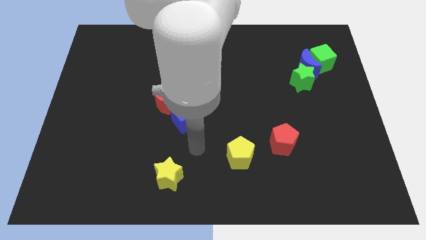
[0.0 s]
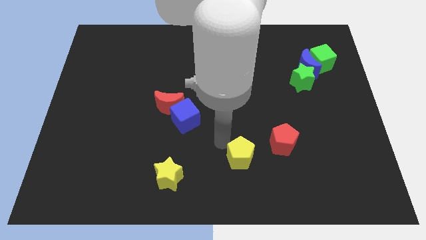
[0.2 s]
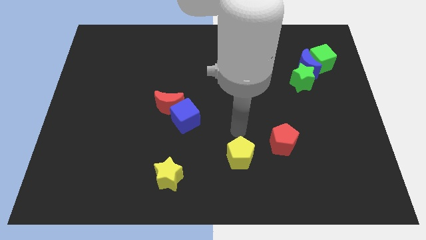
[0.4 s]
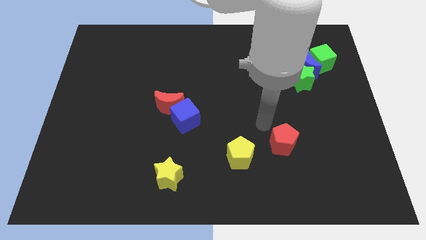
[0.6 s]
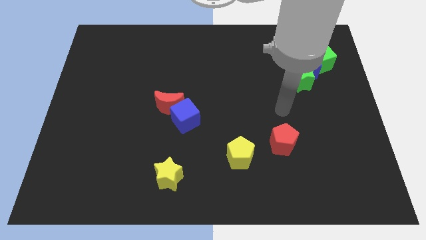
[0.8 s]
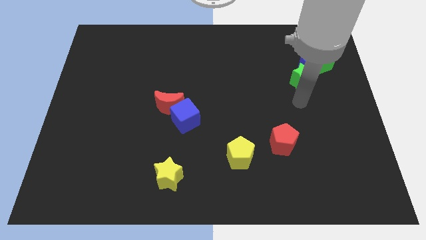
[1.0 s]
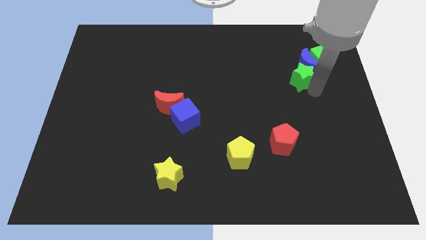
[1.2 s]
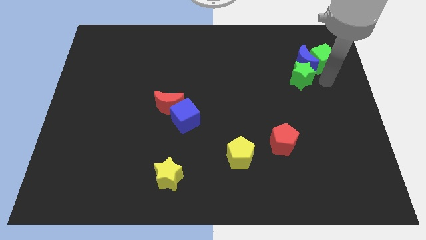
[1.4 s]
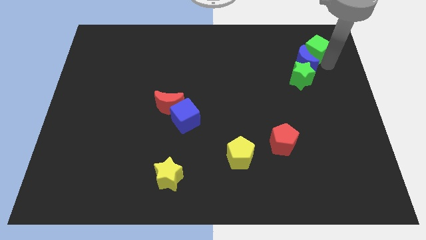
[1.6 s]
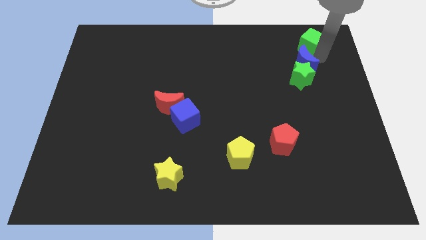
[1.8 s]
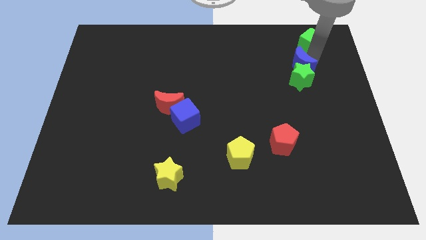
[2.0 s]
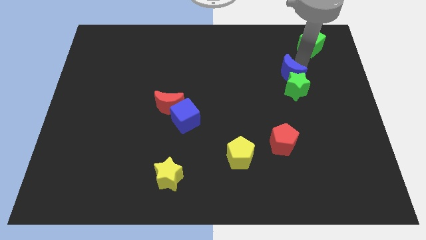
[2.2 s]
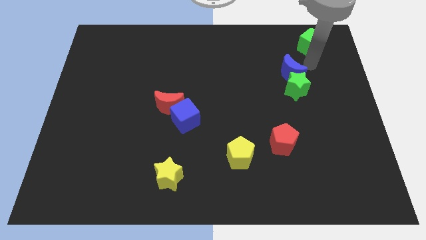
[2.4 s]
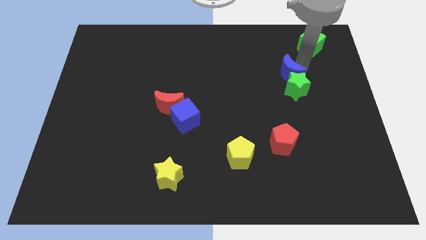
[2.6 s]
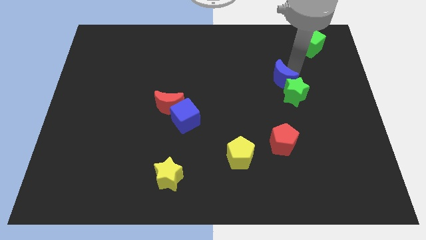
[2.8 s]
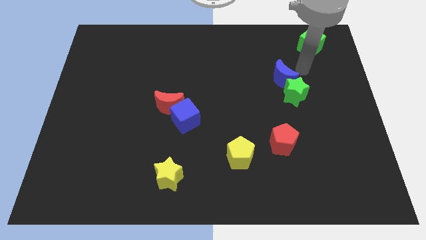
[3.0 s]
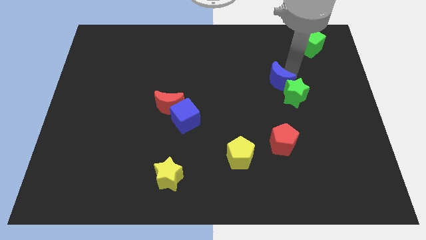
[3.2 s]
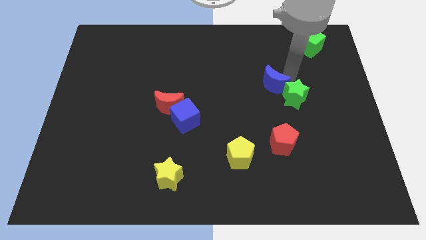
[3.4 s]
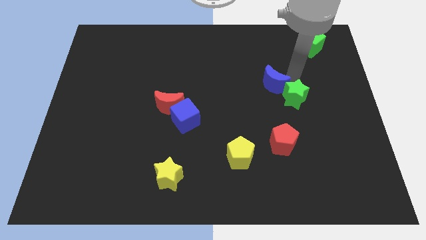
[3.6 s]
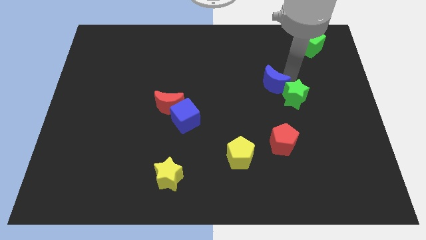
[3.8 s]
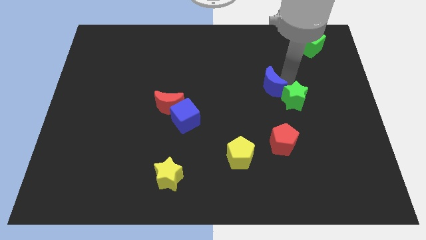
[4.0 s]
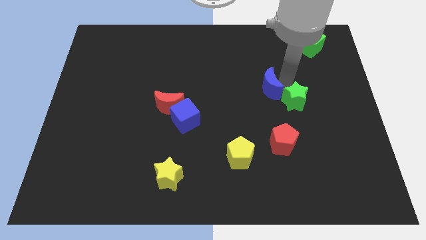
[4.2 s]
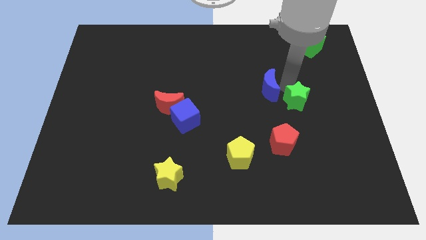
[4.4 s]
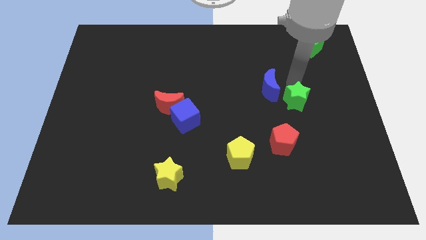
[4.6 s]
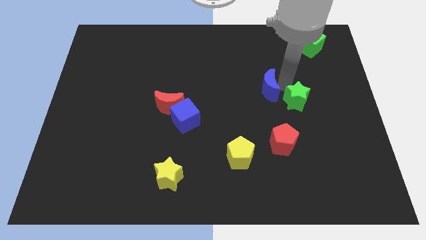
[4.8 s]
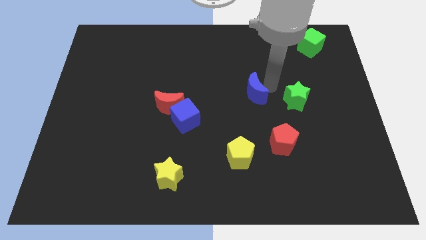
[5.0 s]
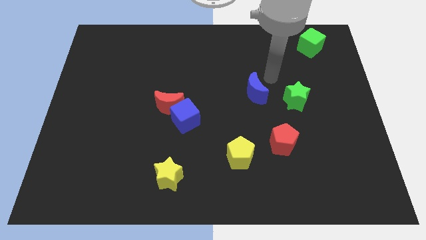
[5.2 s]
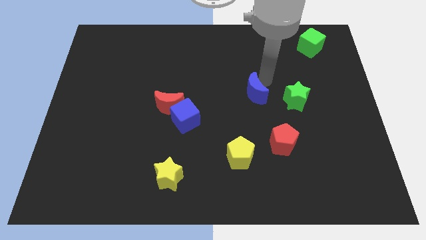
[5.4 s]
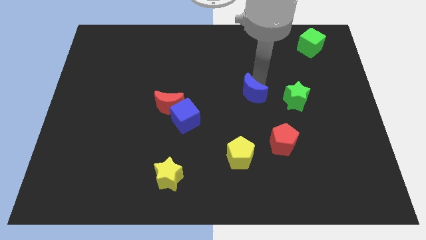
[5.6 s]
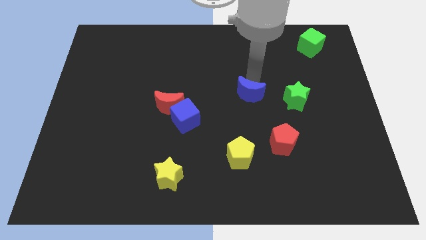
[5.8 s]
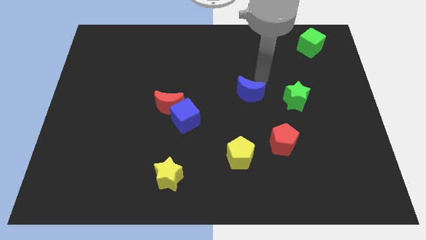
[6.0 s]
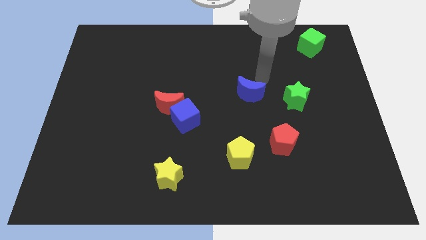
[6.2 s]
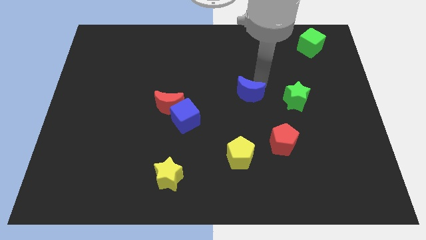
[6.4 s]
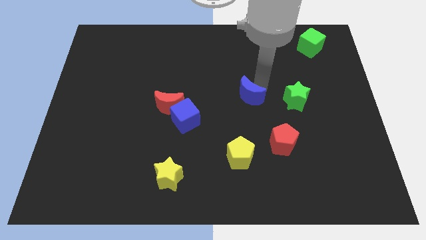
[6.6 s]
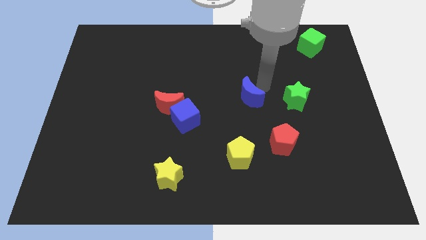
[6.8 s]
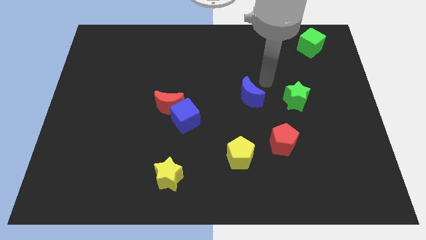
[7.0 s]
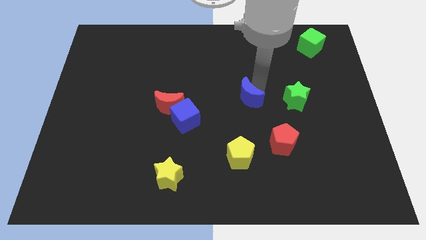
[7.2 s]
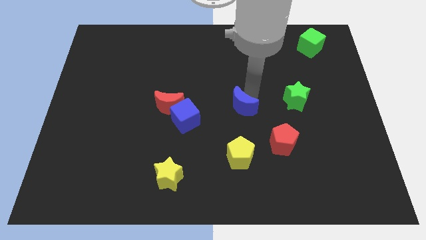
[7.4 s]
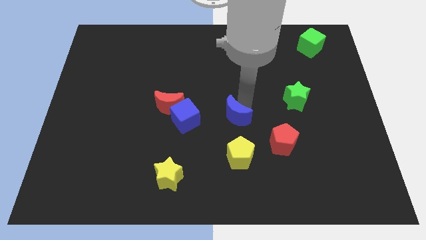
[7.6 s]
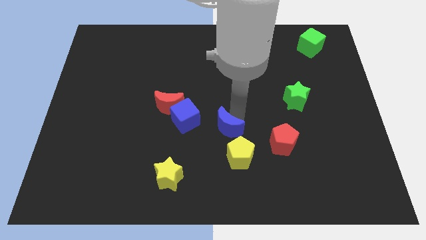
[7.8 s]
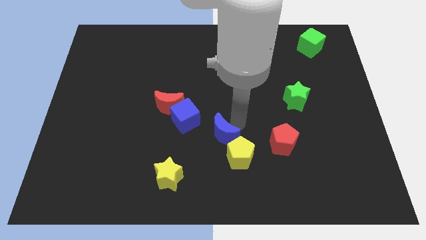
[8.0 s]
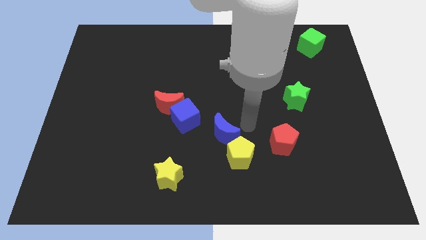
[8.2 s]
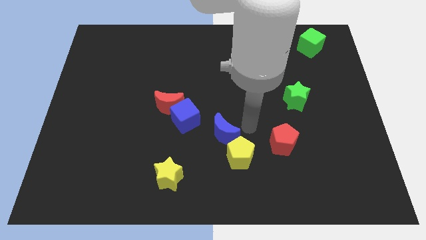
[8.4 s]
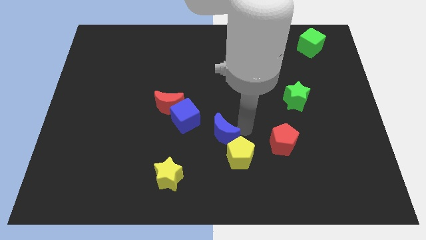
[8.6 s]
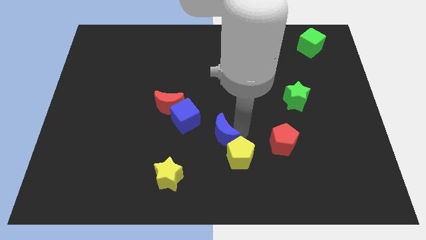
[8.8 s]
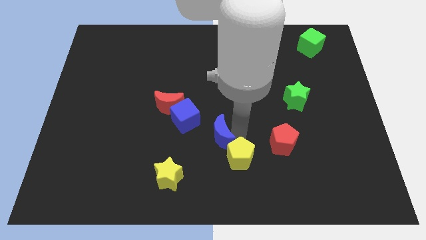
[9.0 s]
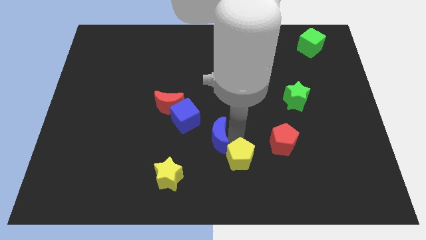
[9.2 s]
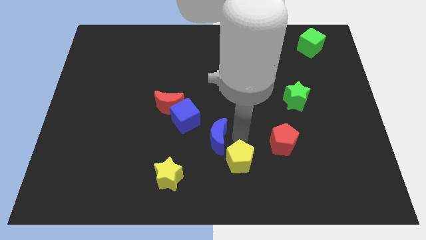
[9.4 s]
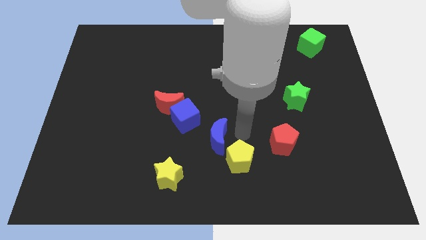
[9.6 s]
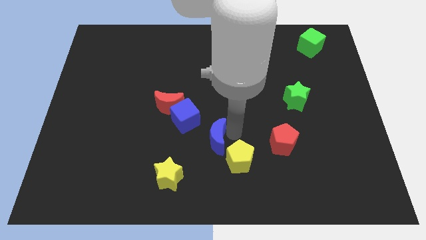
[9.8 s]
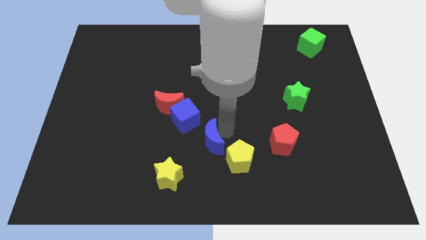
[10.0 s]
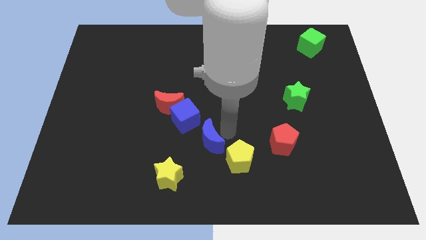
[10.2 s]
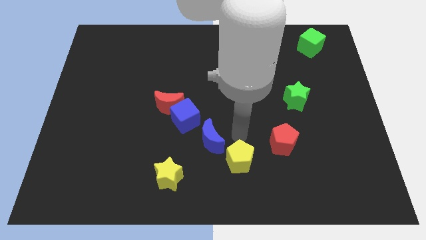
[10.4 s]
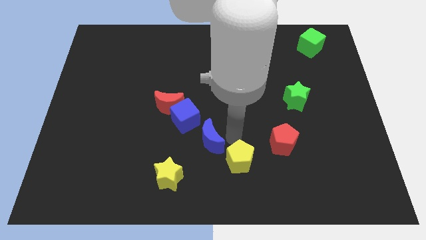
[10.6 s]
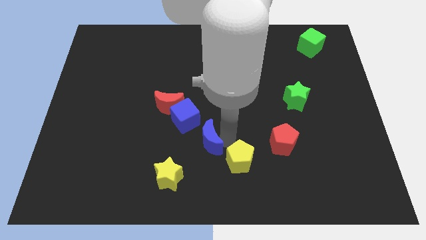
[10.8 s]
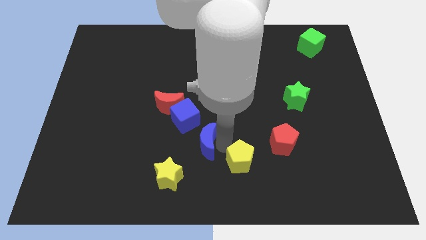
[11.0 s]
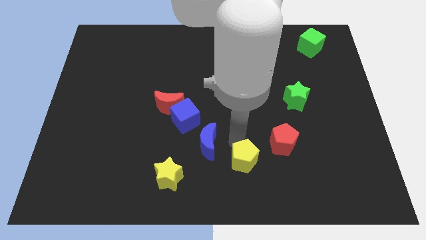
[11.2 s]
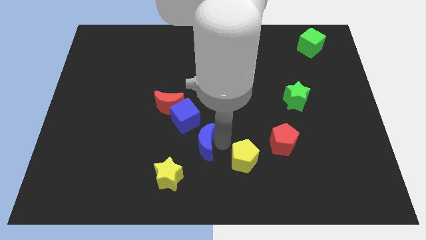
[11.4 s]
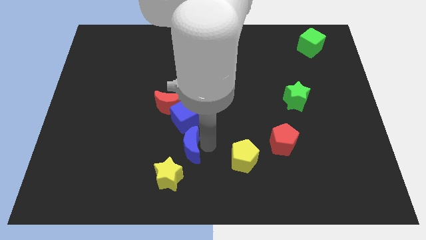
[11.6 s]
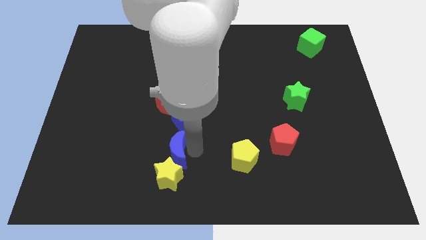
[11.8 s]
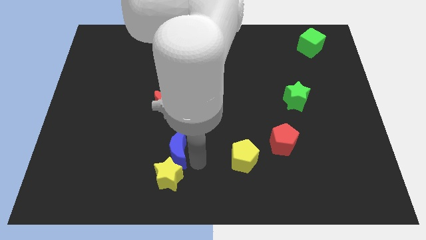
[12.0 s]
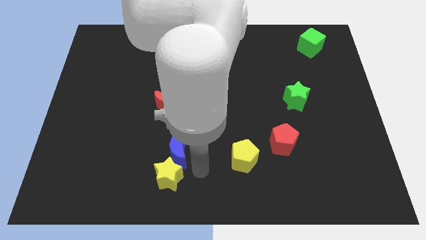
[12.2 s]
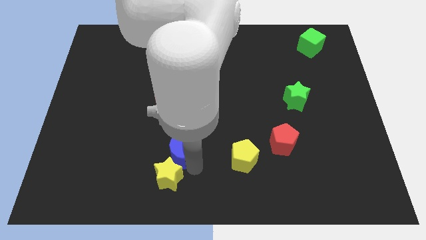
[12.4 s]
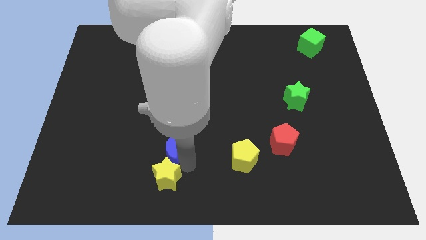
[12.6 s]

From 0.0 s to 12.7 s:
put the blue moon to the bottom left side of the blue cube

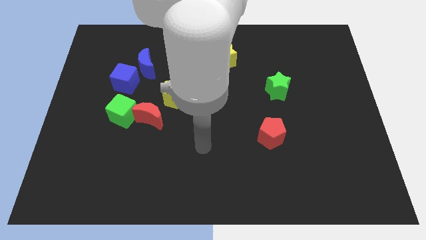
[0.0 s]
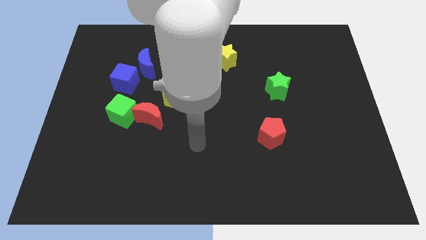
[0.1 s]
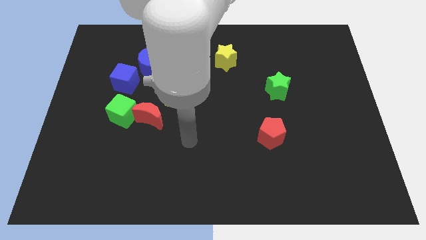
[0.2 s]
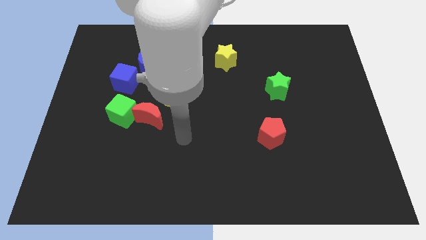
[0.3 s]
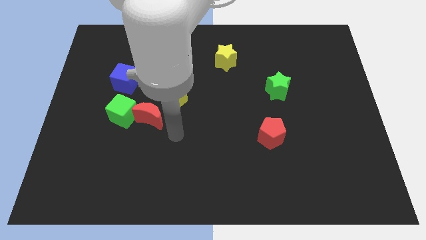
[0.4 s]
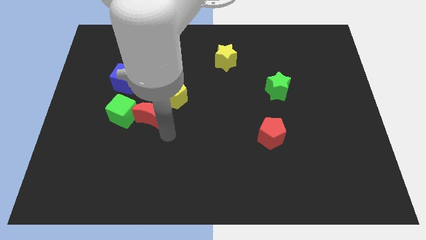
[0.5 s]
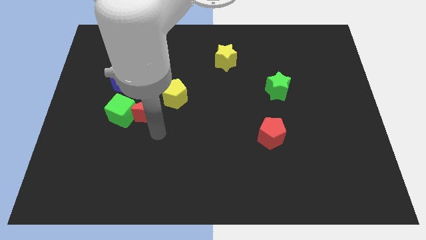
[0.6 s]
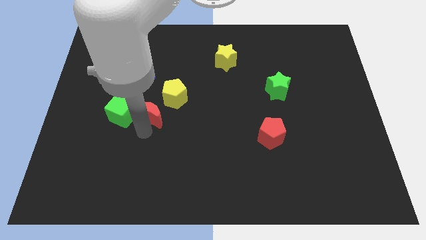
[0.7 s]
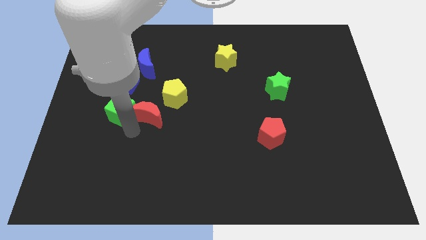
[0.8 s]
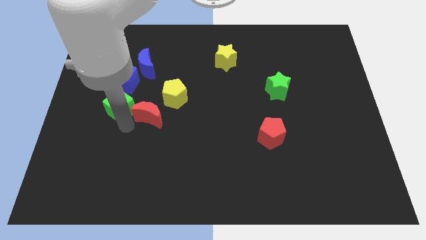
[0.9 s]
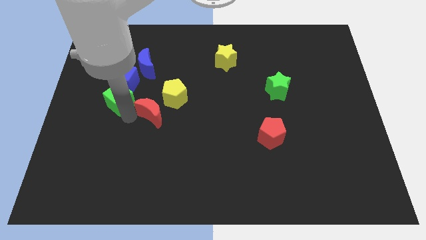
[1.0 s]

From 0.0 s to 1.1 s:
slide the red moon below the yellow pentagon
